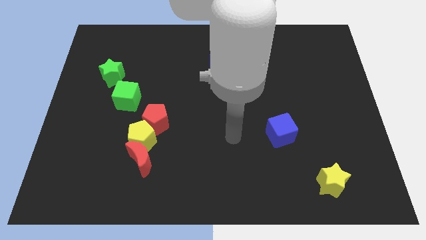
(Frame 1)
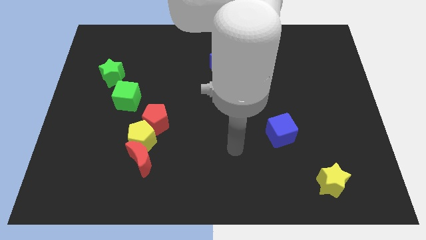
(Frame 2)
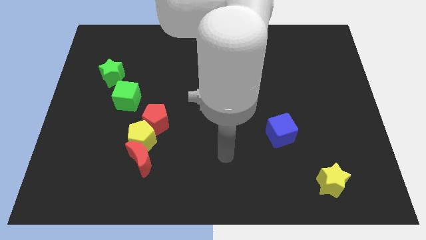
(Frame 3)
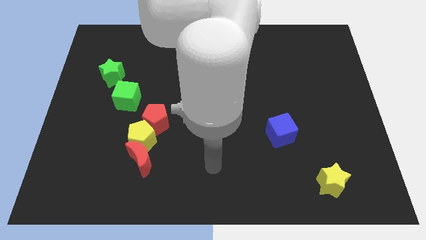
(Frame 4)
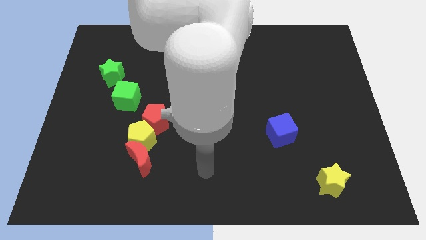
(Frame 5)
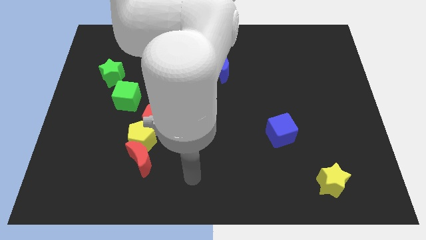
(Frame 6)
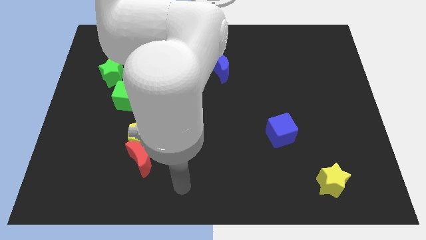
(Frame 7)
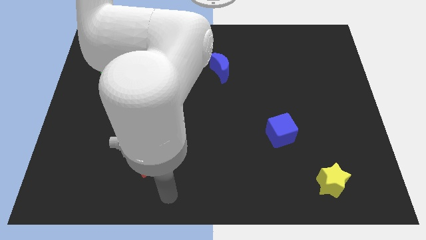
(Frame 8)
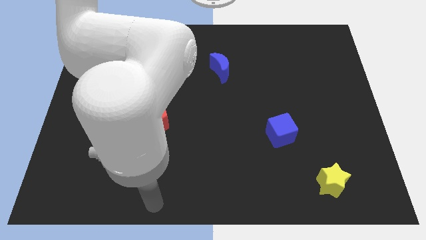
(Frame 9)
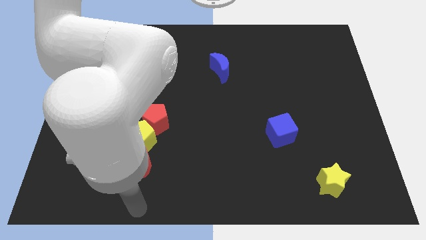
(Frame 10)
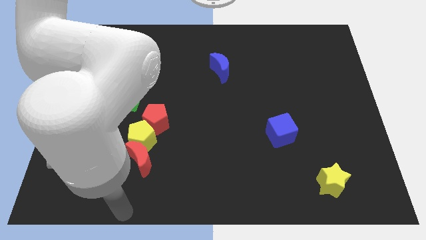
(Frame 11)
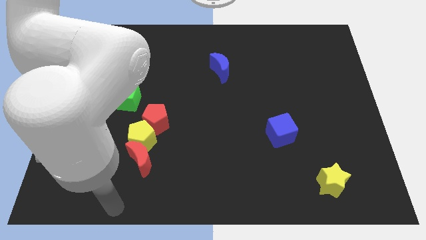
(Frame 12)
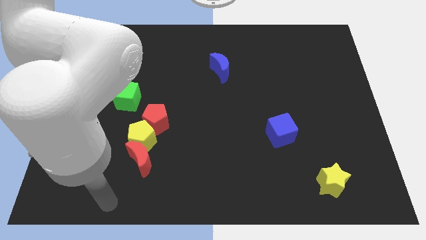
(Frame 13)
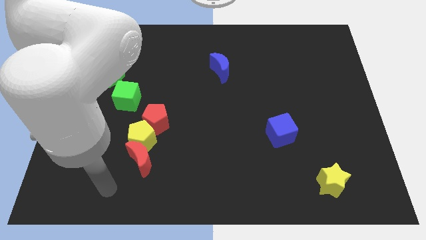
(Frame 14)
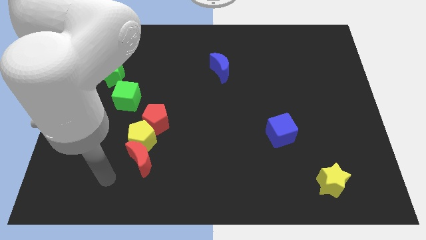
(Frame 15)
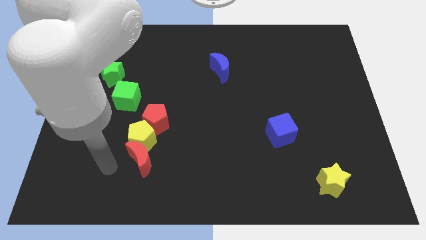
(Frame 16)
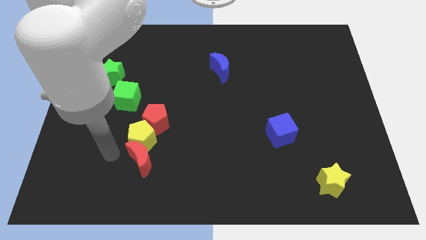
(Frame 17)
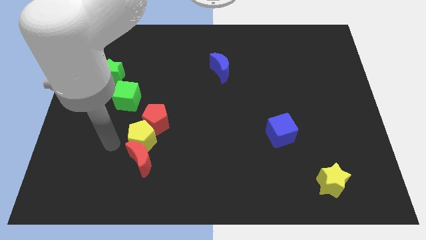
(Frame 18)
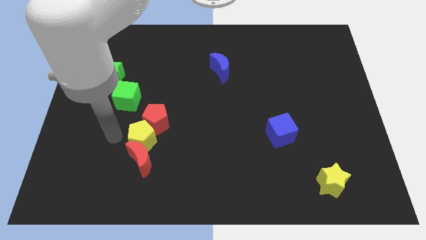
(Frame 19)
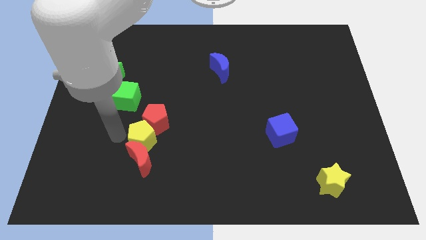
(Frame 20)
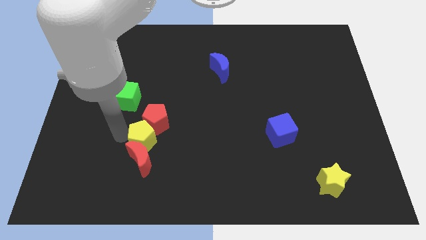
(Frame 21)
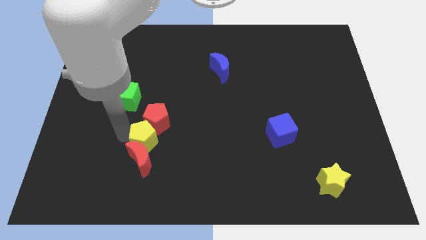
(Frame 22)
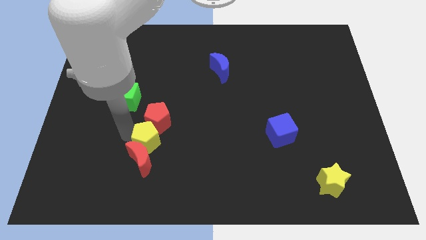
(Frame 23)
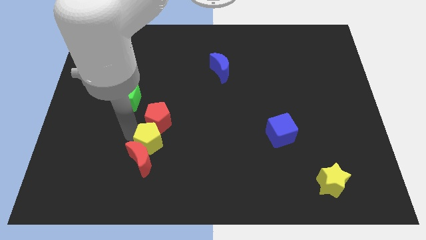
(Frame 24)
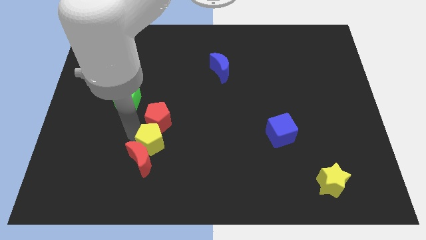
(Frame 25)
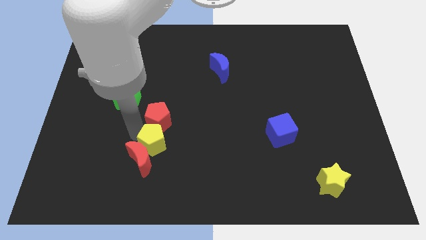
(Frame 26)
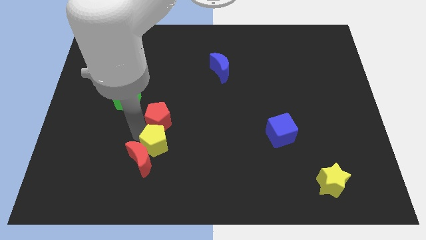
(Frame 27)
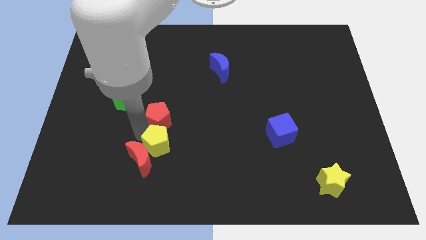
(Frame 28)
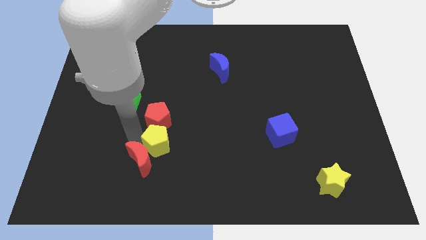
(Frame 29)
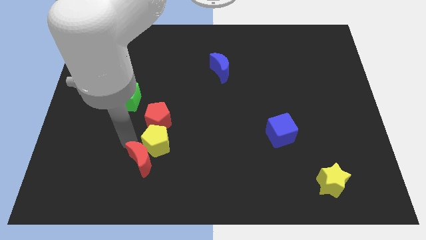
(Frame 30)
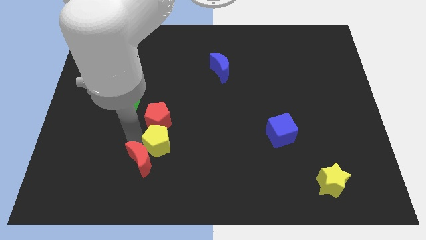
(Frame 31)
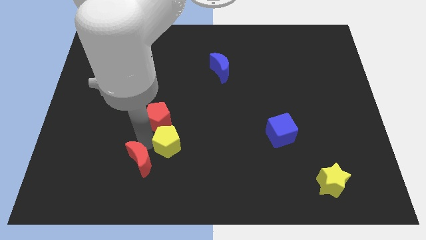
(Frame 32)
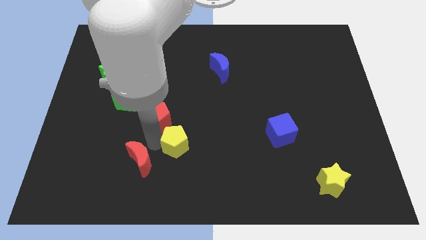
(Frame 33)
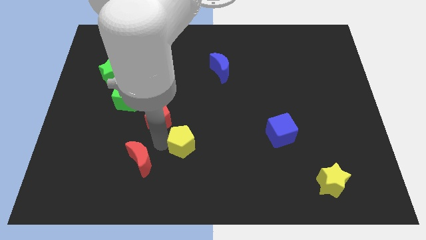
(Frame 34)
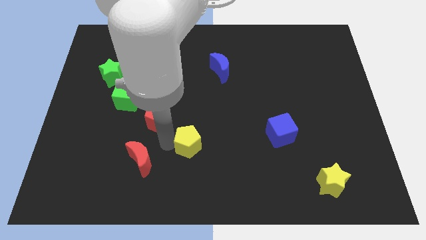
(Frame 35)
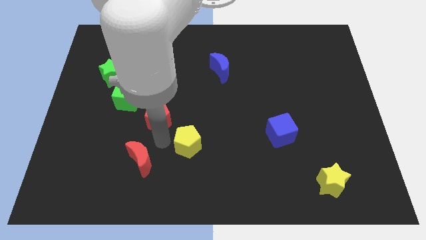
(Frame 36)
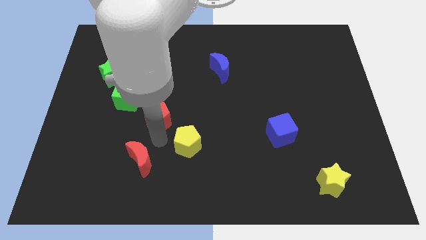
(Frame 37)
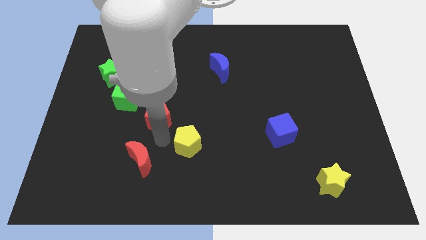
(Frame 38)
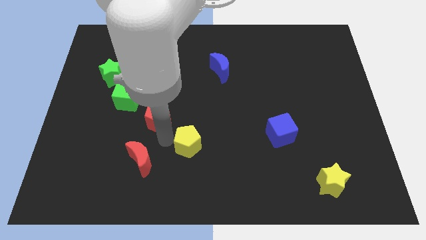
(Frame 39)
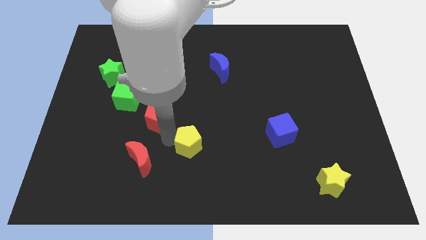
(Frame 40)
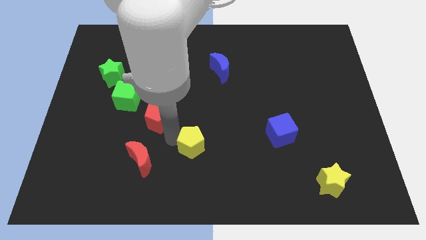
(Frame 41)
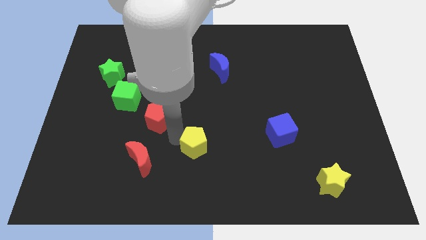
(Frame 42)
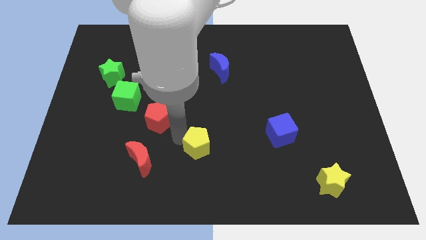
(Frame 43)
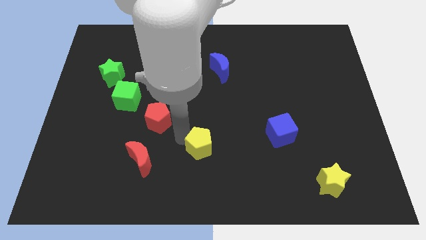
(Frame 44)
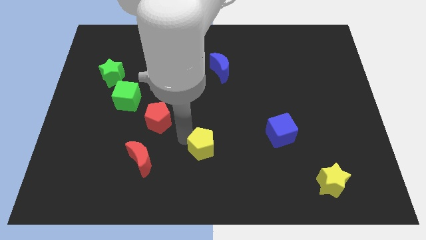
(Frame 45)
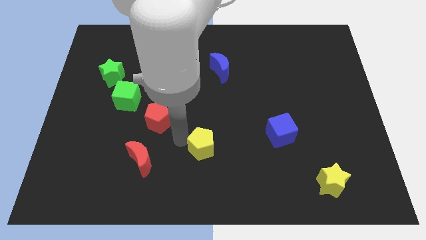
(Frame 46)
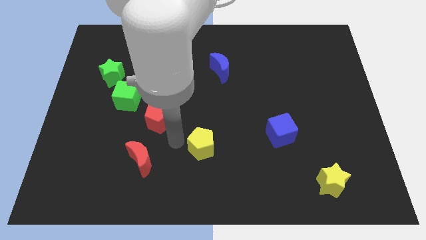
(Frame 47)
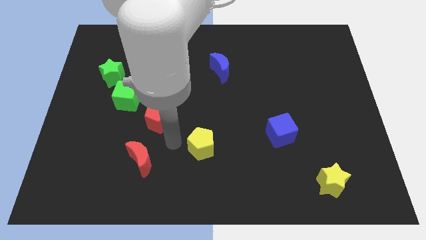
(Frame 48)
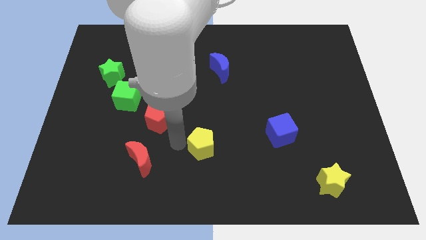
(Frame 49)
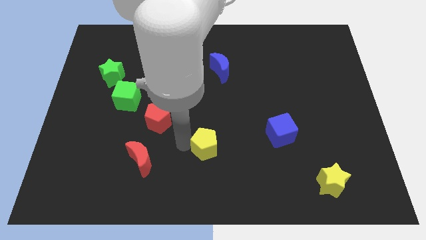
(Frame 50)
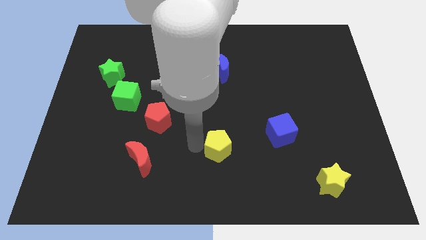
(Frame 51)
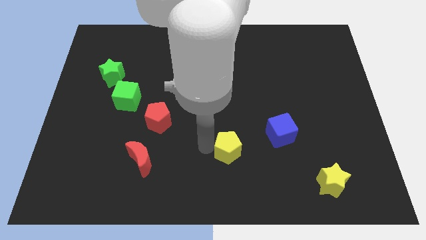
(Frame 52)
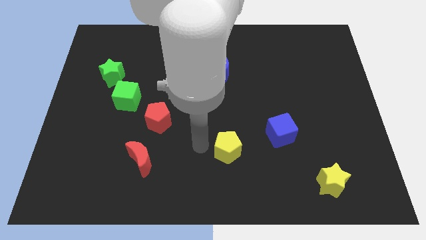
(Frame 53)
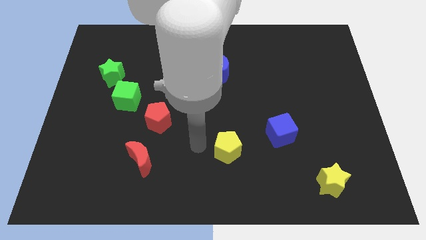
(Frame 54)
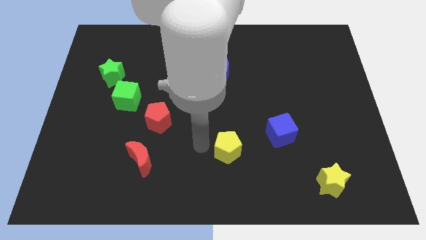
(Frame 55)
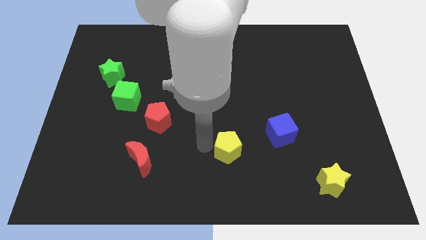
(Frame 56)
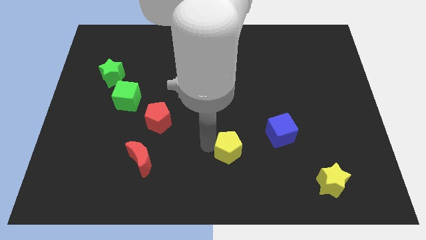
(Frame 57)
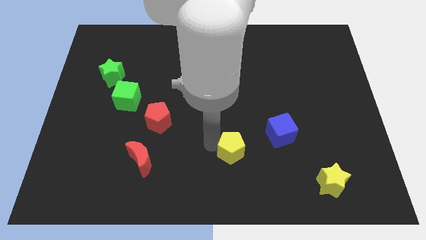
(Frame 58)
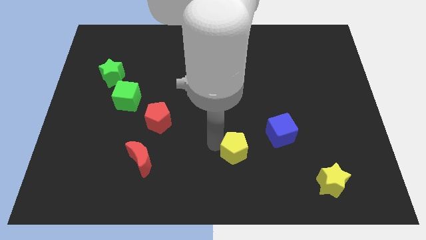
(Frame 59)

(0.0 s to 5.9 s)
slide the yellow pentagon to the bottom left of the blue cube

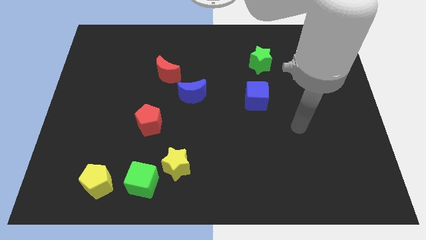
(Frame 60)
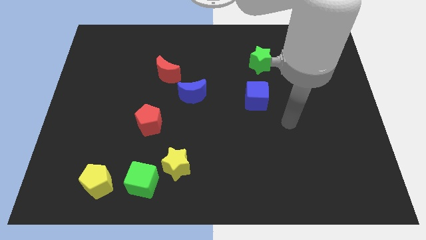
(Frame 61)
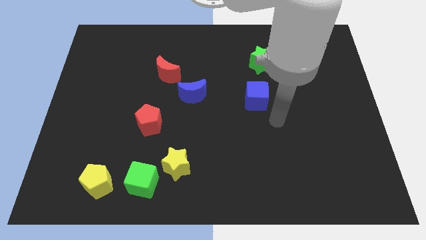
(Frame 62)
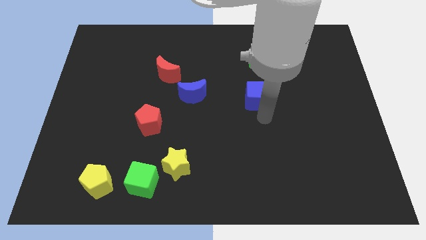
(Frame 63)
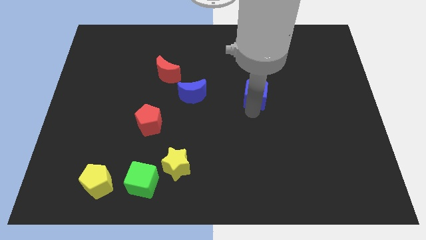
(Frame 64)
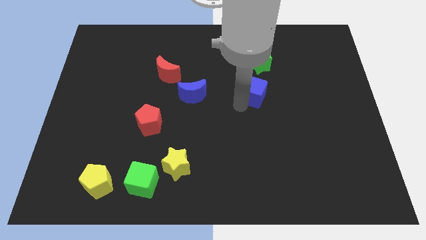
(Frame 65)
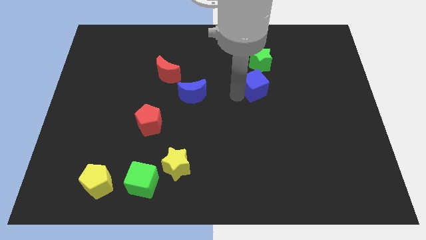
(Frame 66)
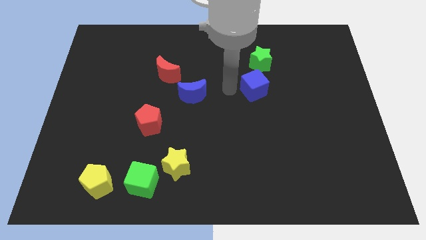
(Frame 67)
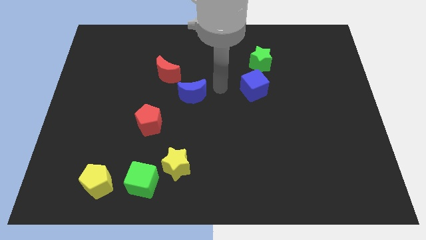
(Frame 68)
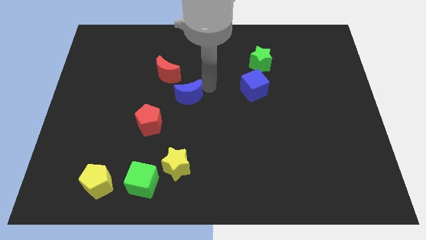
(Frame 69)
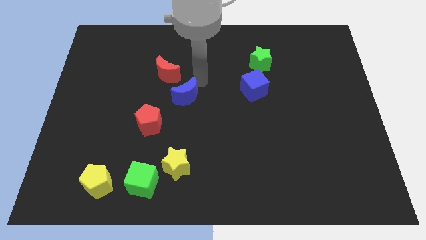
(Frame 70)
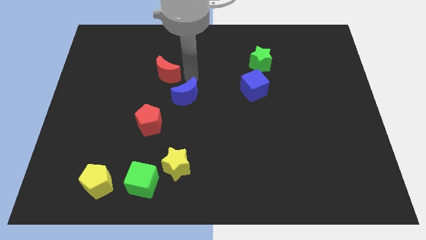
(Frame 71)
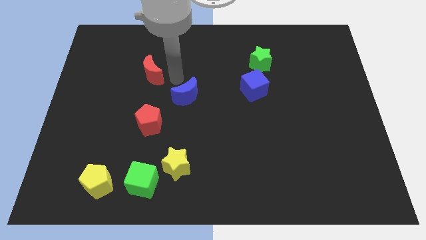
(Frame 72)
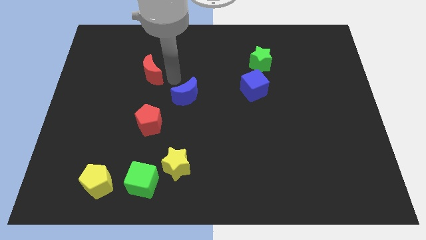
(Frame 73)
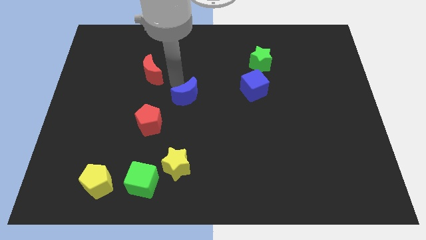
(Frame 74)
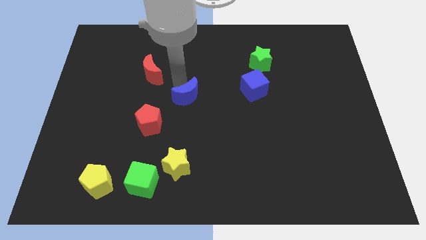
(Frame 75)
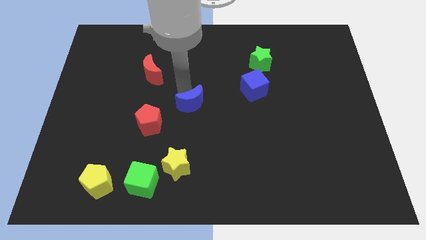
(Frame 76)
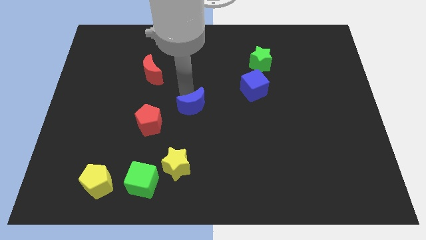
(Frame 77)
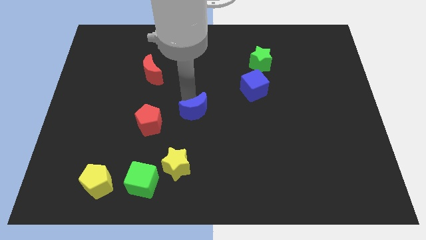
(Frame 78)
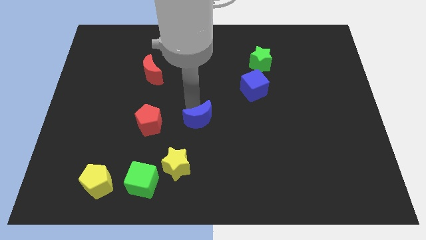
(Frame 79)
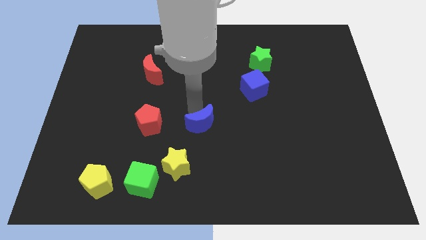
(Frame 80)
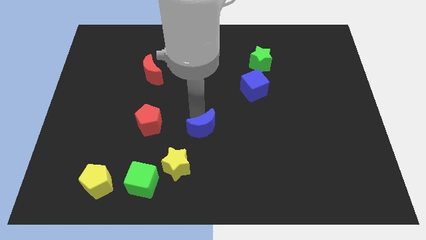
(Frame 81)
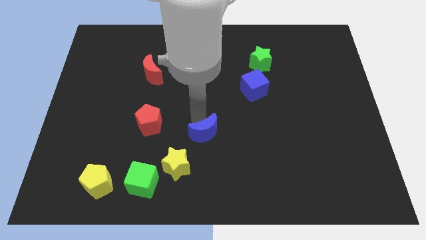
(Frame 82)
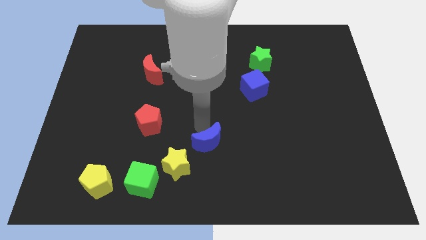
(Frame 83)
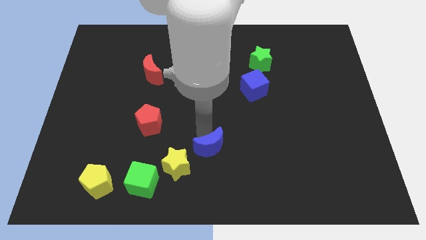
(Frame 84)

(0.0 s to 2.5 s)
move the blue moon just right of the yellow star
